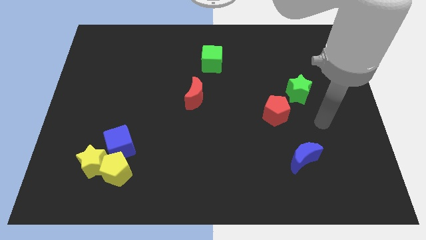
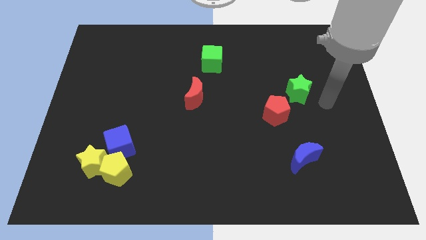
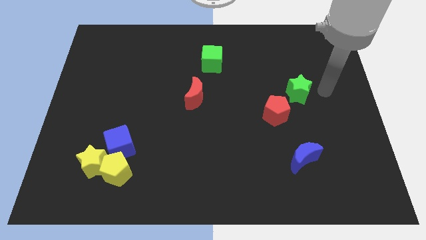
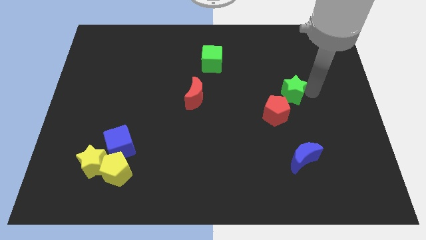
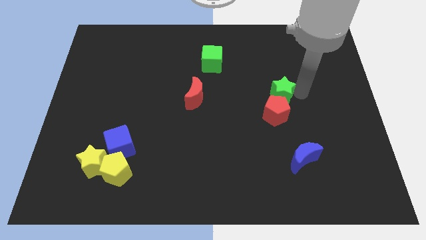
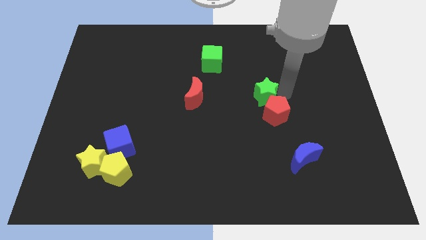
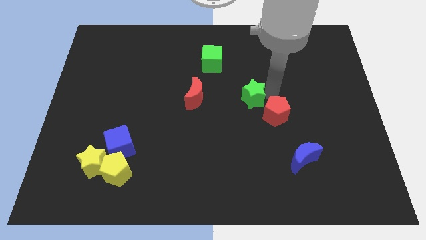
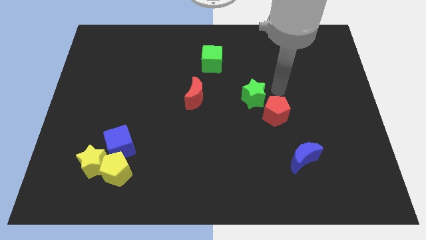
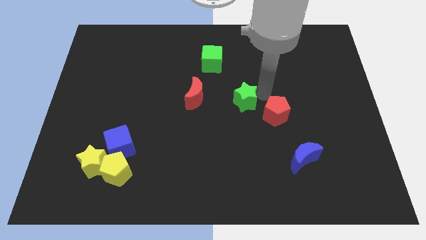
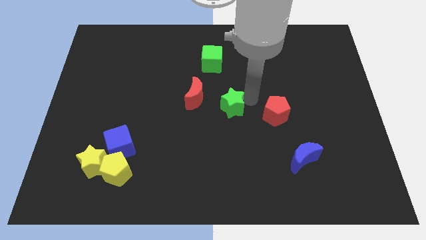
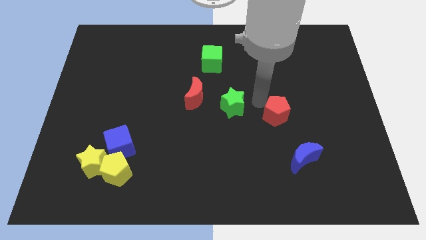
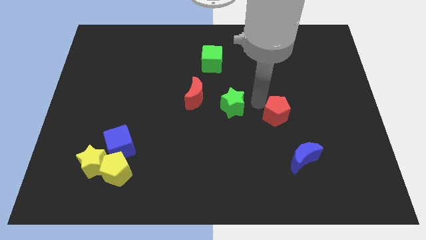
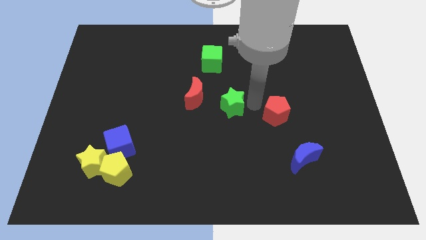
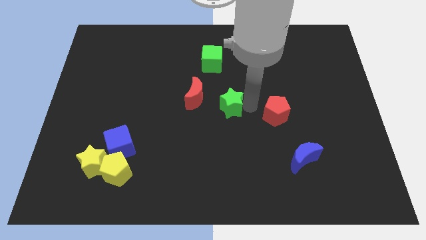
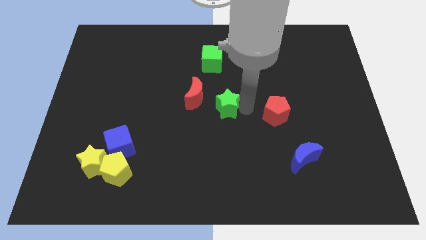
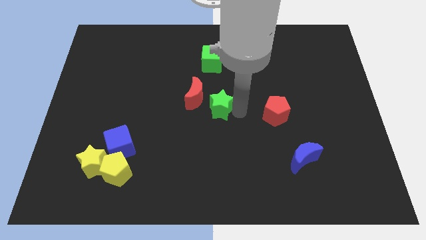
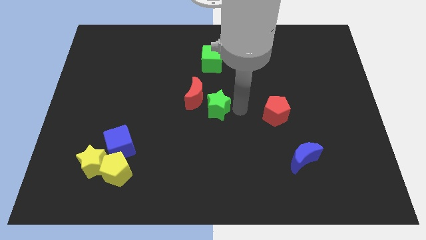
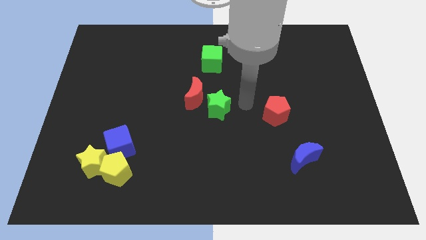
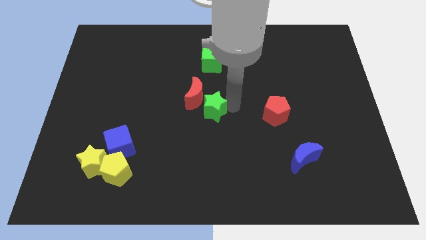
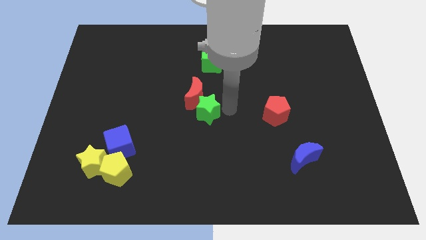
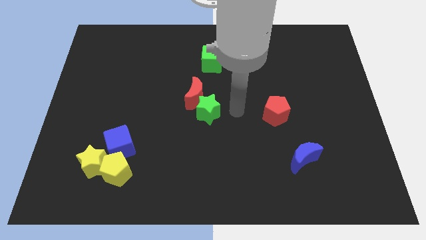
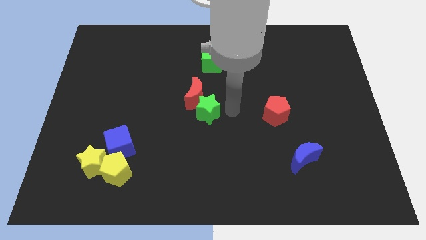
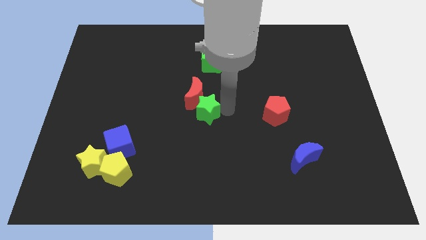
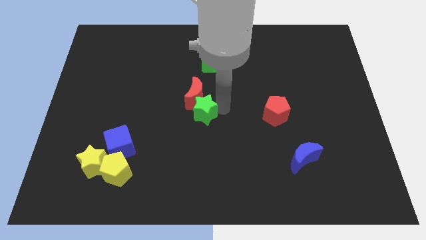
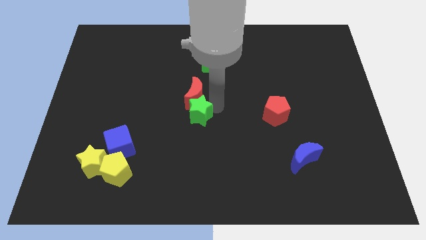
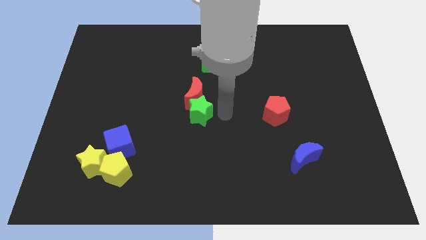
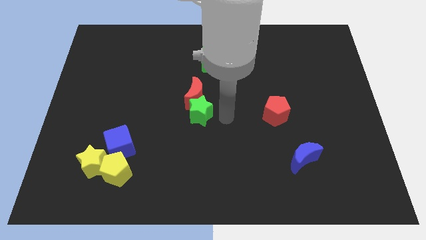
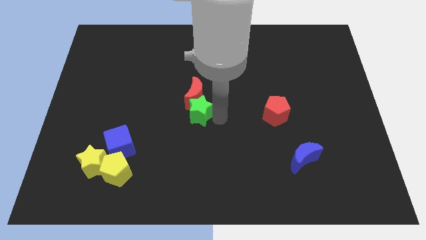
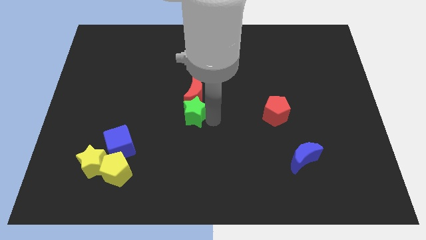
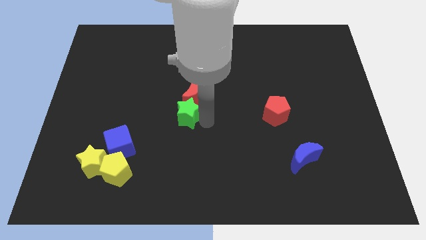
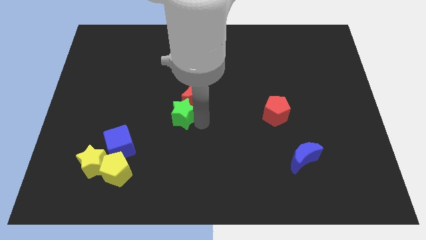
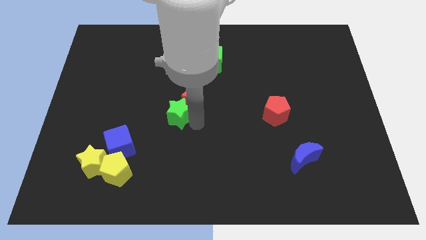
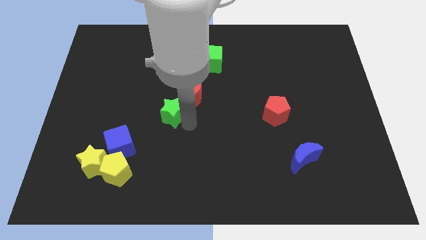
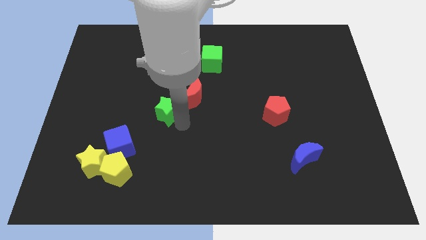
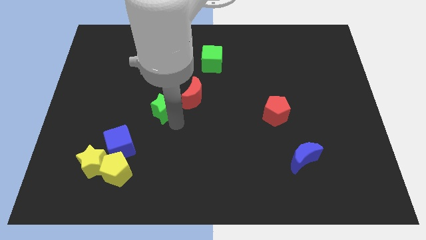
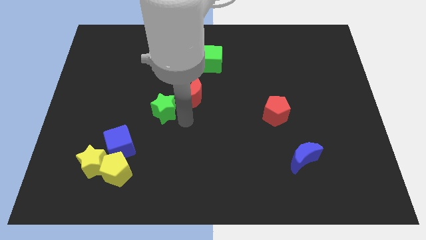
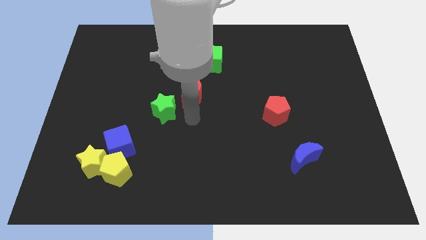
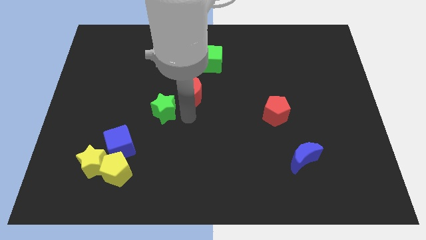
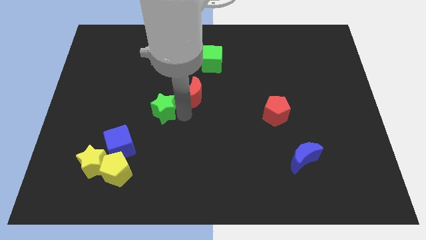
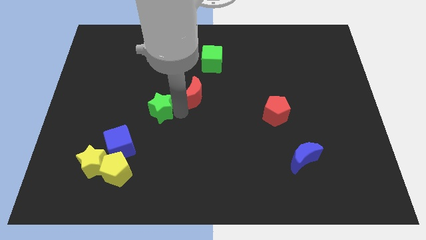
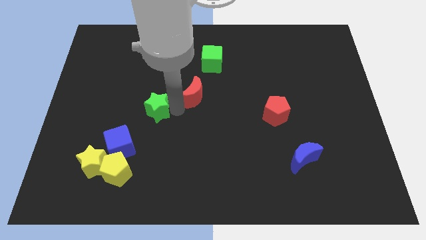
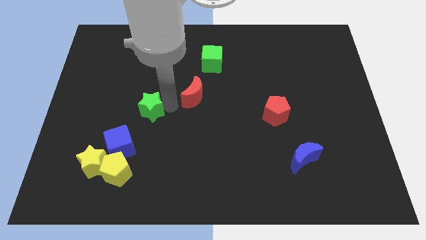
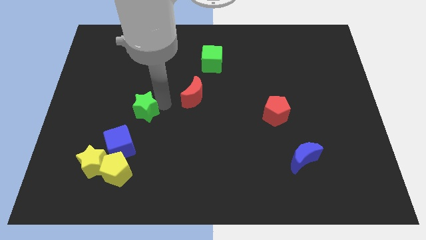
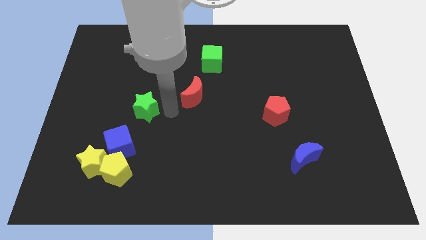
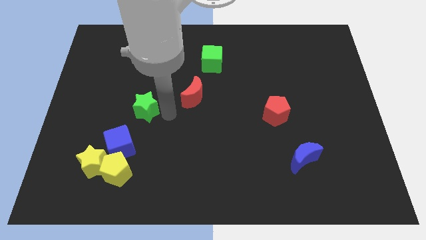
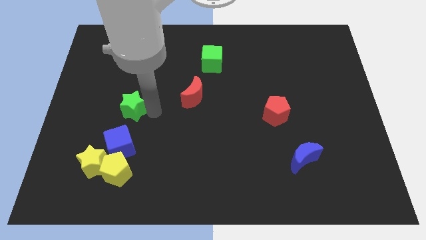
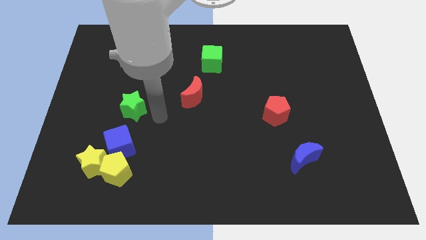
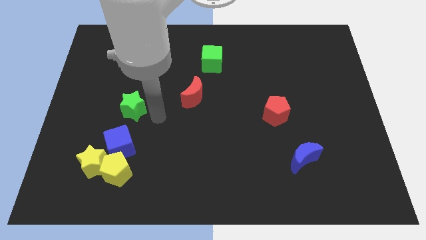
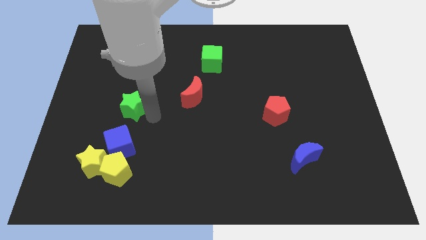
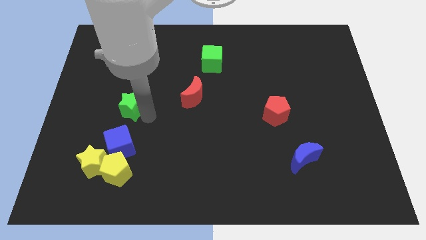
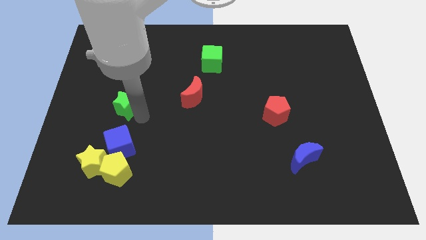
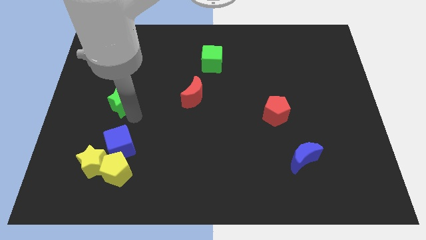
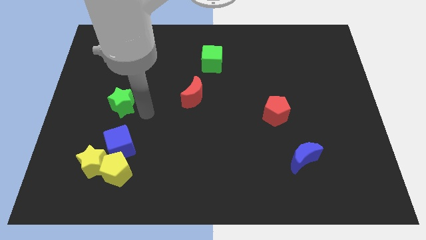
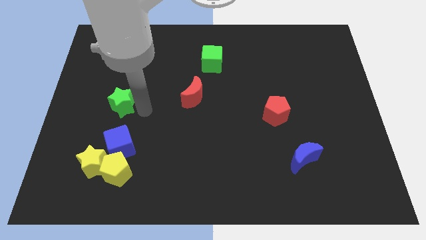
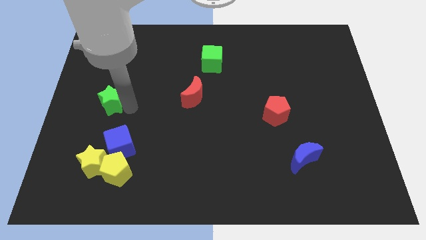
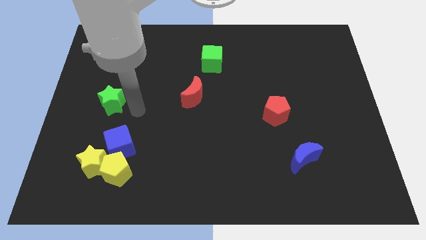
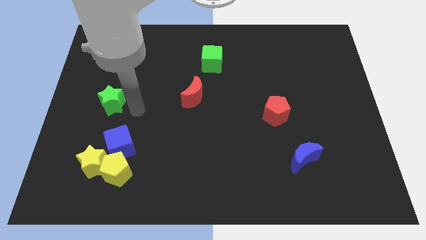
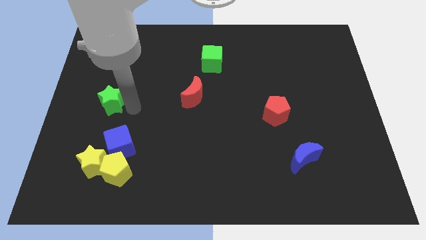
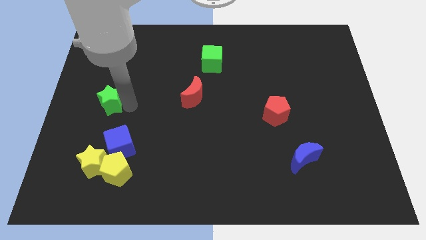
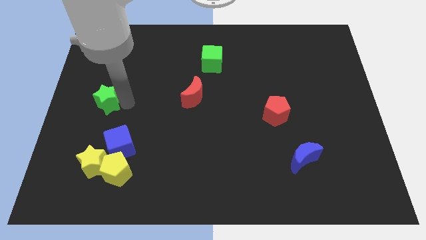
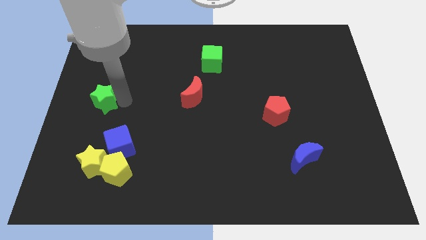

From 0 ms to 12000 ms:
put the green star to the center left

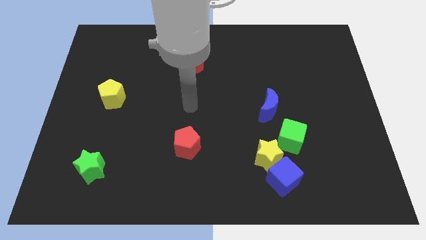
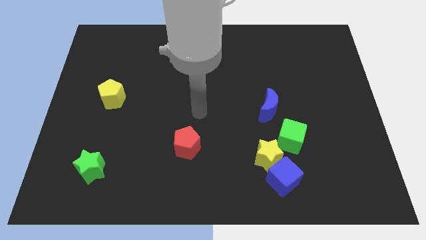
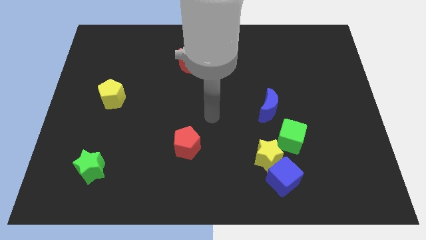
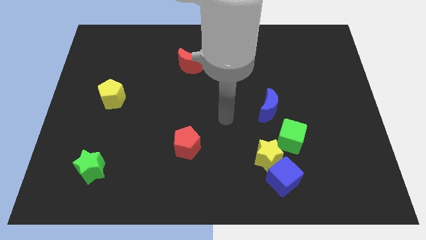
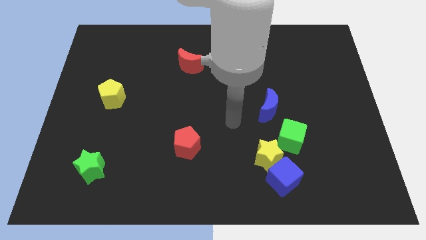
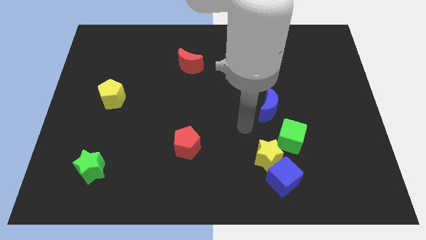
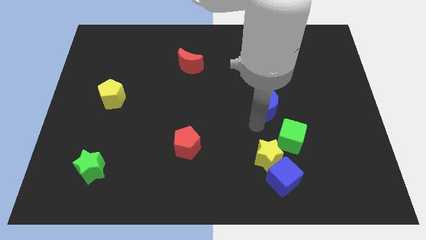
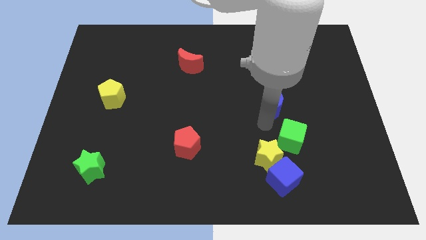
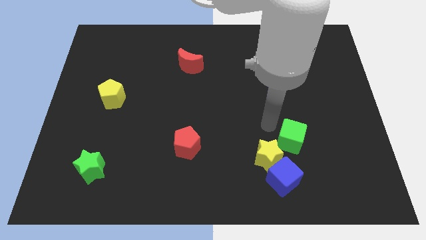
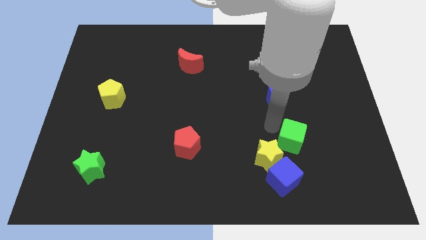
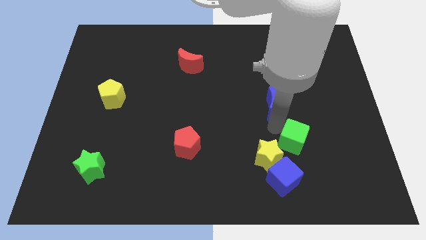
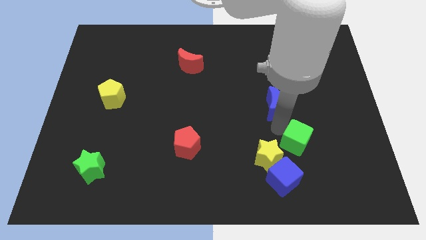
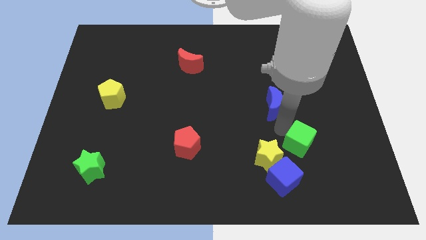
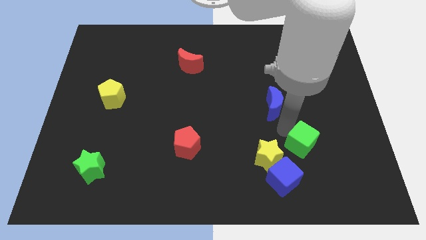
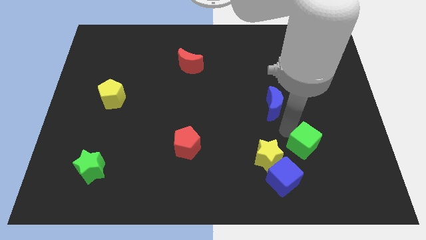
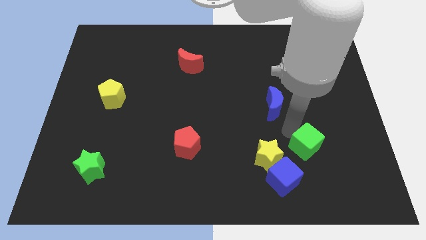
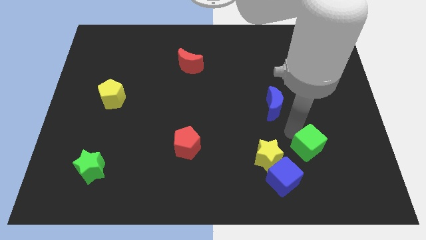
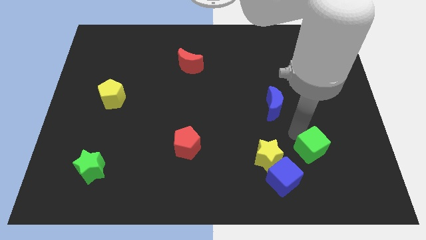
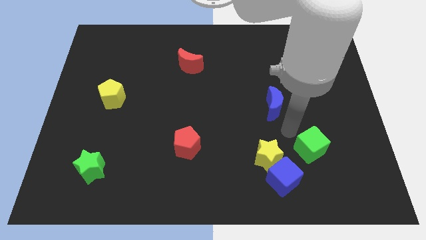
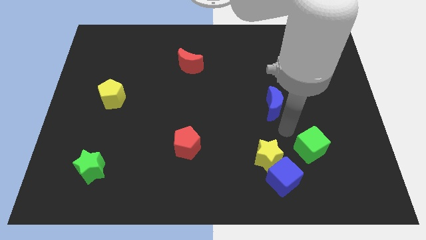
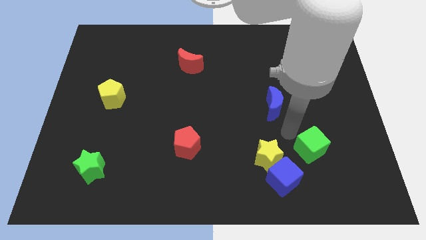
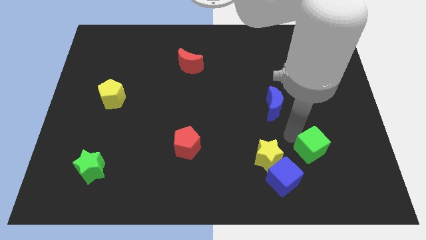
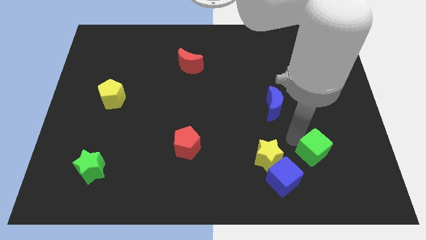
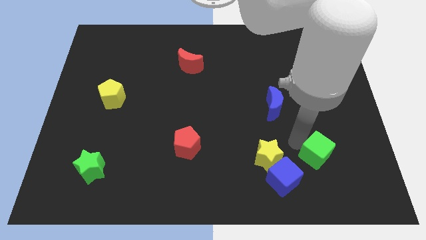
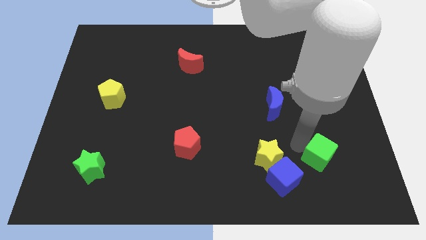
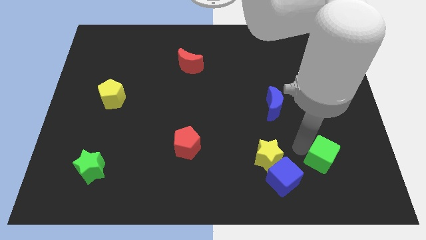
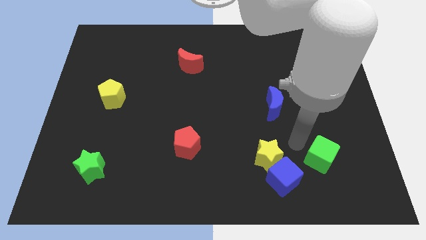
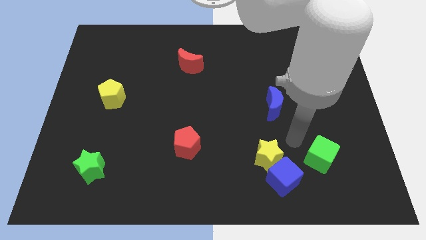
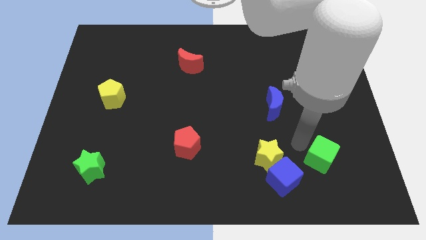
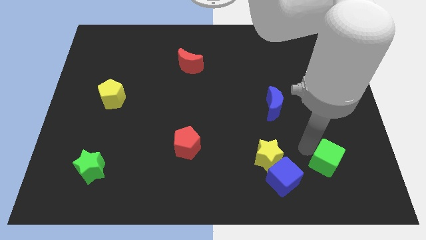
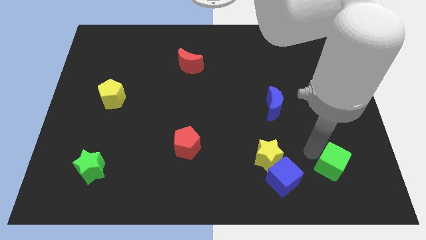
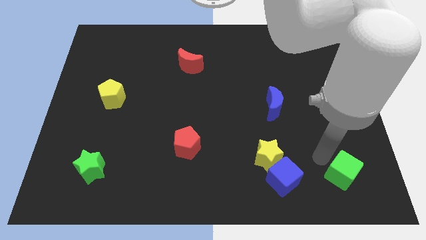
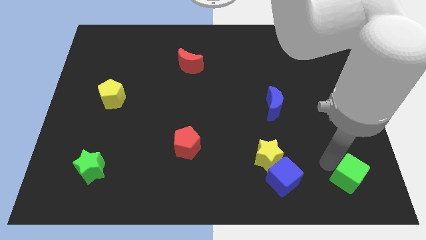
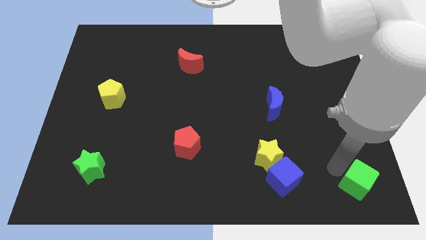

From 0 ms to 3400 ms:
push the green cube to the bottom right of the board
